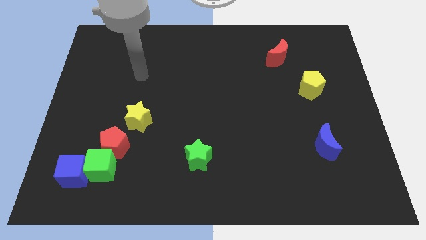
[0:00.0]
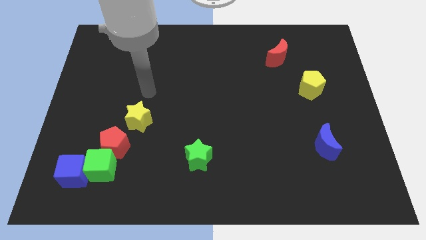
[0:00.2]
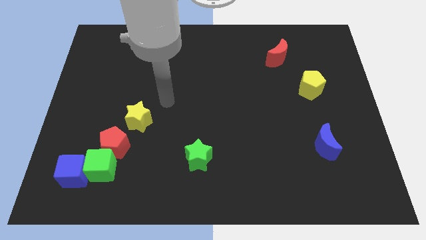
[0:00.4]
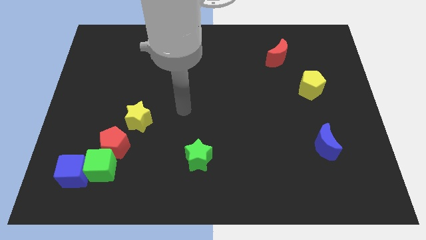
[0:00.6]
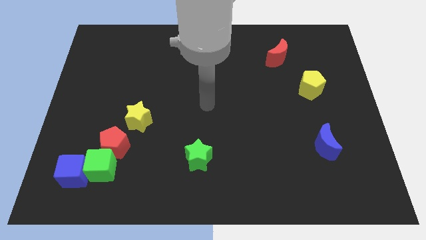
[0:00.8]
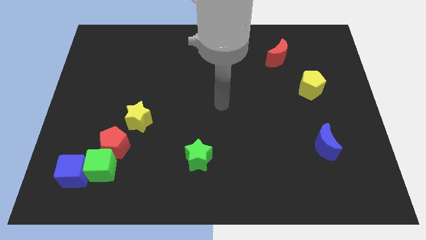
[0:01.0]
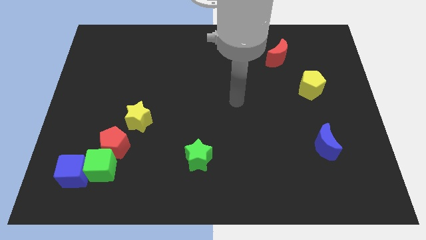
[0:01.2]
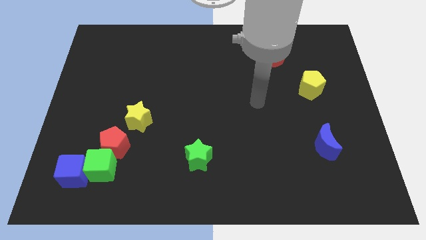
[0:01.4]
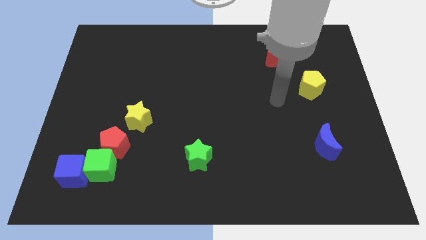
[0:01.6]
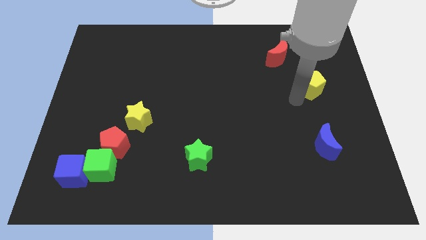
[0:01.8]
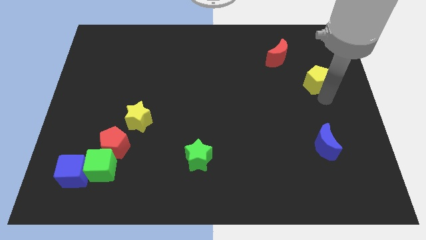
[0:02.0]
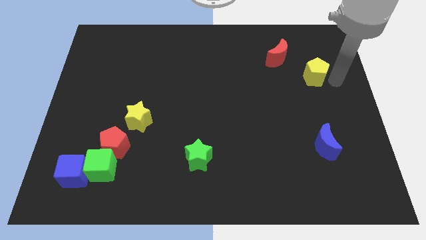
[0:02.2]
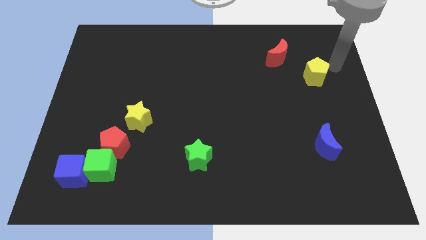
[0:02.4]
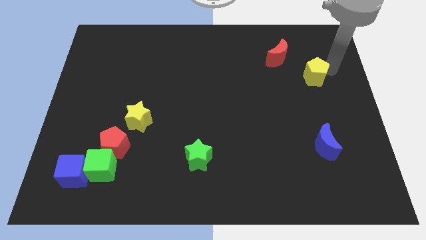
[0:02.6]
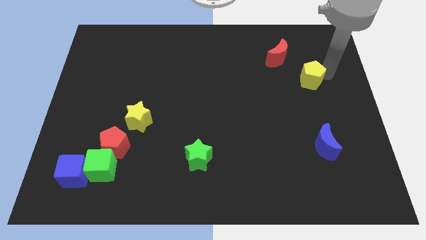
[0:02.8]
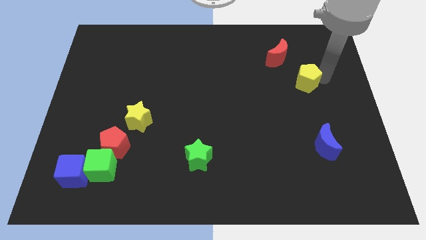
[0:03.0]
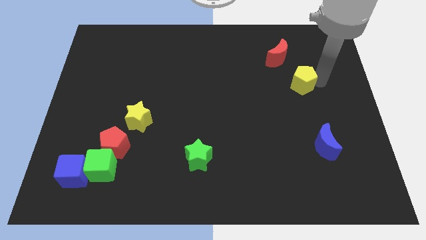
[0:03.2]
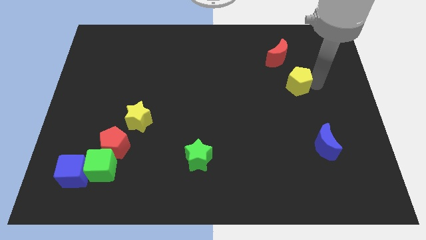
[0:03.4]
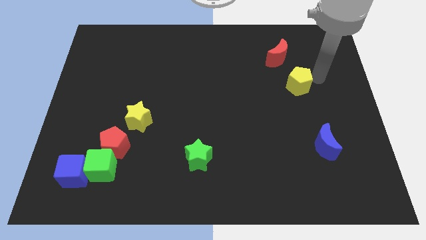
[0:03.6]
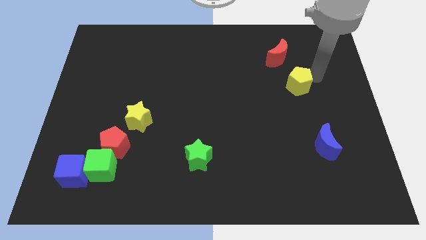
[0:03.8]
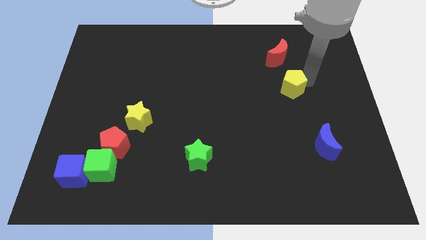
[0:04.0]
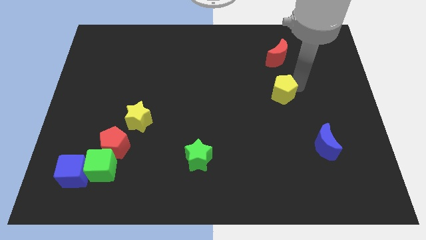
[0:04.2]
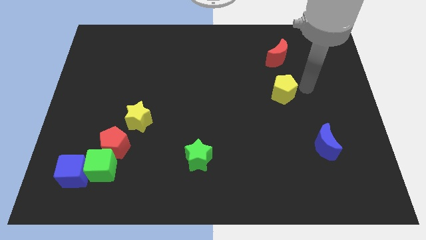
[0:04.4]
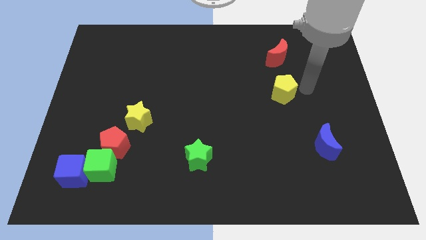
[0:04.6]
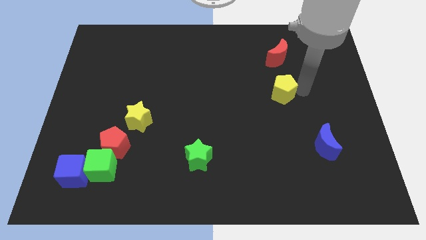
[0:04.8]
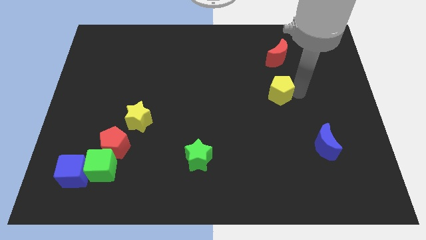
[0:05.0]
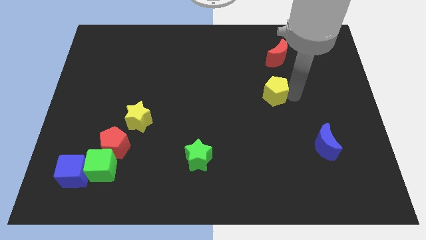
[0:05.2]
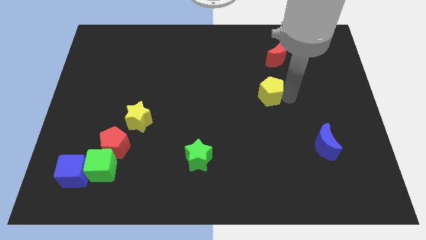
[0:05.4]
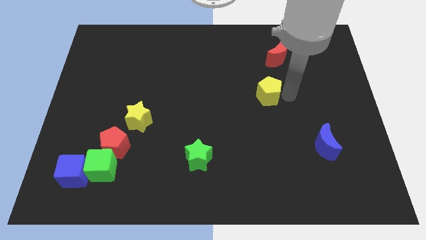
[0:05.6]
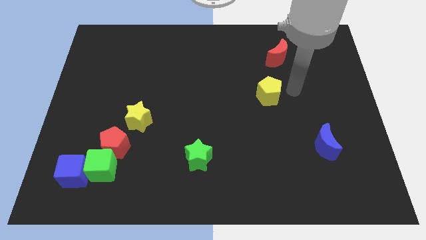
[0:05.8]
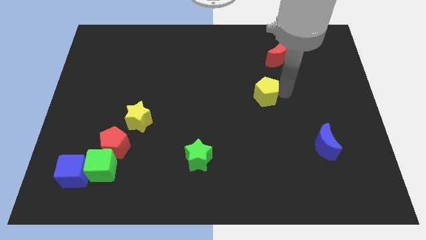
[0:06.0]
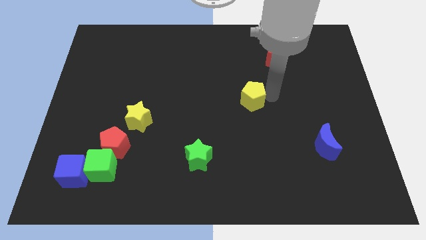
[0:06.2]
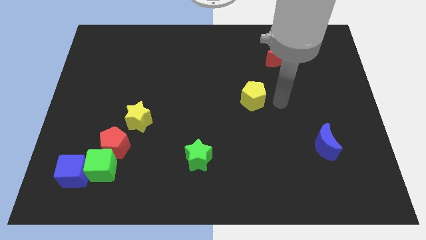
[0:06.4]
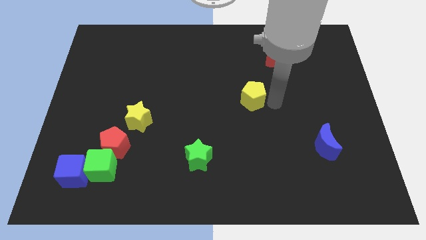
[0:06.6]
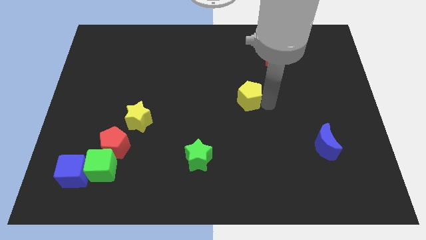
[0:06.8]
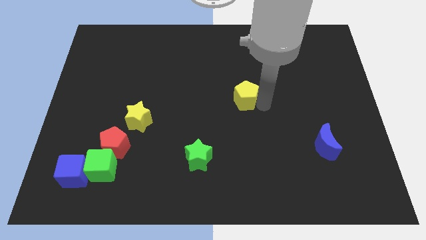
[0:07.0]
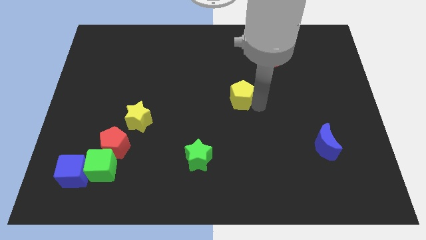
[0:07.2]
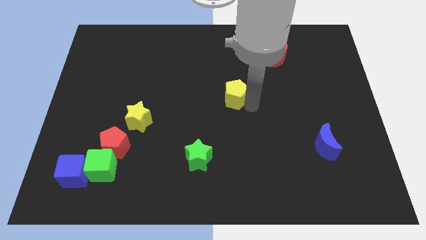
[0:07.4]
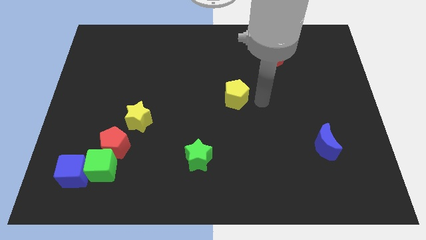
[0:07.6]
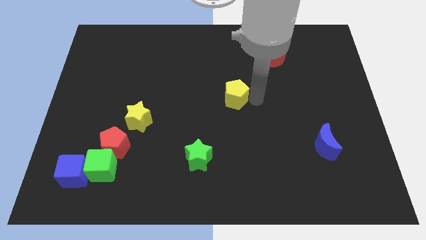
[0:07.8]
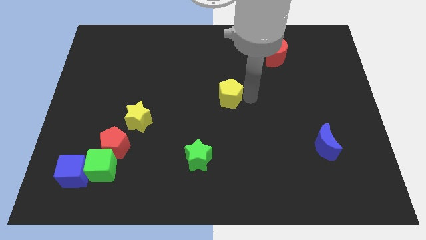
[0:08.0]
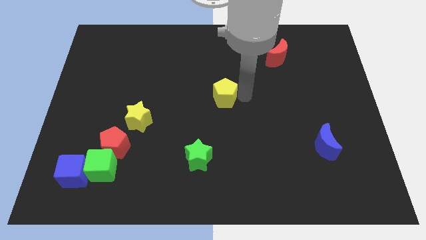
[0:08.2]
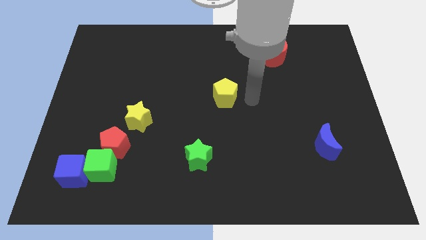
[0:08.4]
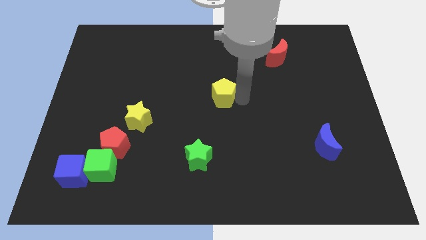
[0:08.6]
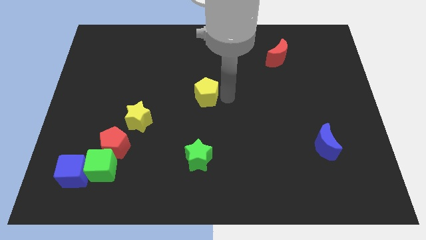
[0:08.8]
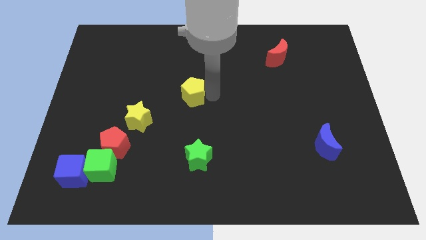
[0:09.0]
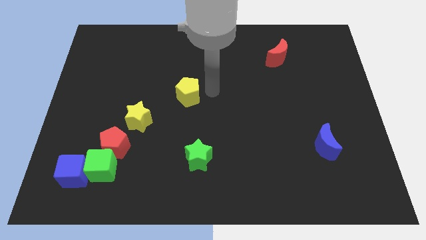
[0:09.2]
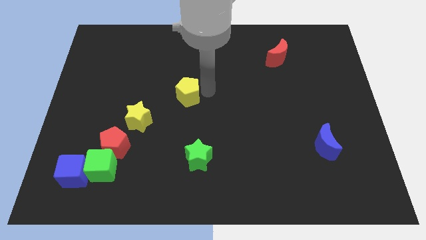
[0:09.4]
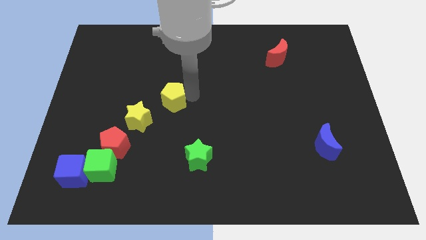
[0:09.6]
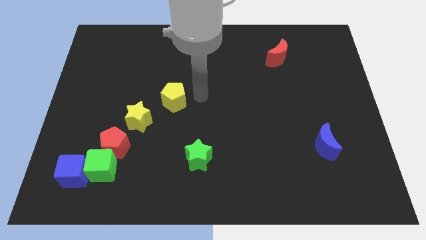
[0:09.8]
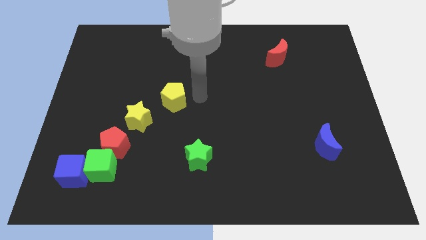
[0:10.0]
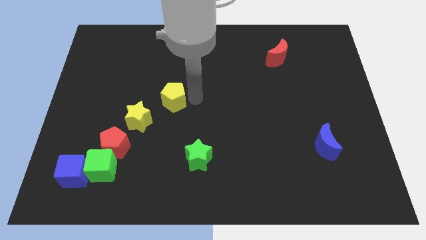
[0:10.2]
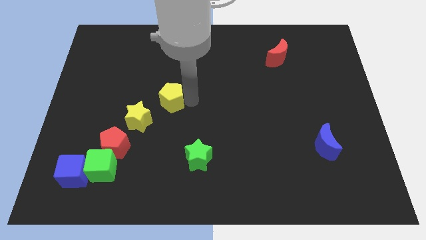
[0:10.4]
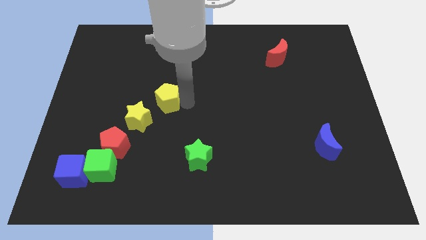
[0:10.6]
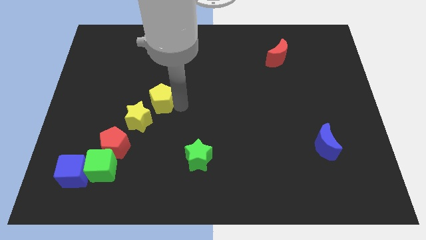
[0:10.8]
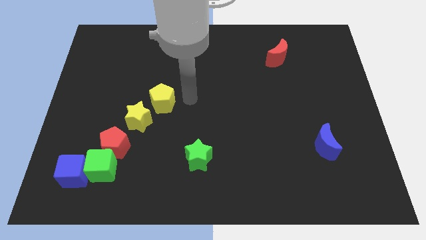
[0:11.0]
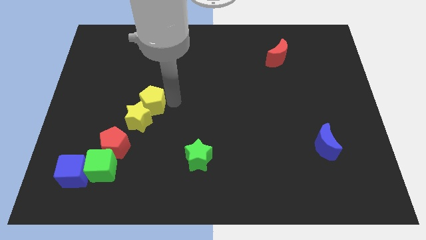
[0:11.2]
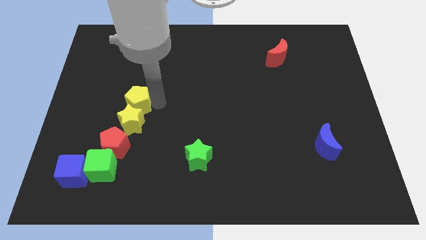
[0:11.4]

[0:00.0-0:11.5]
move the yellow pentagon above the red pentagon
